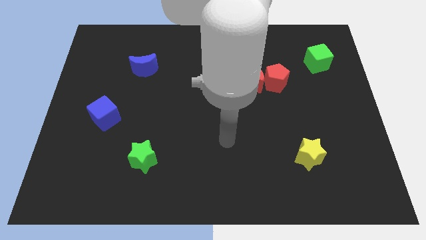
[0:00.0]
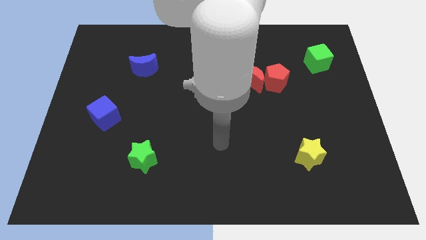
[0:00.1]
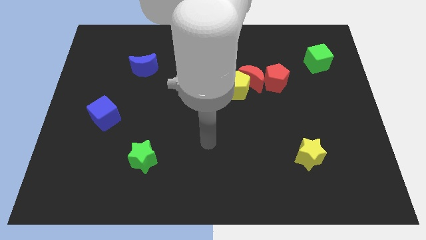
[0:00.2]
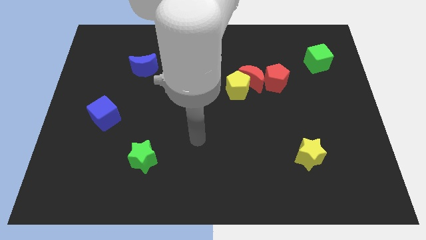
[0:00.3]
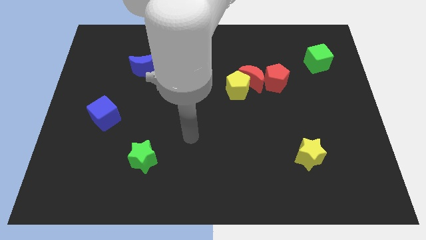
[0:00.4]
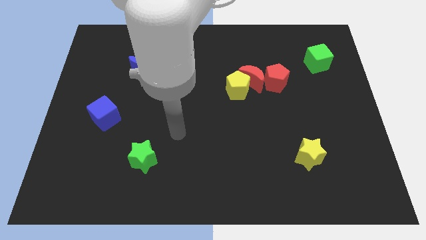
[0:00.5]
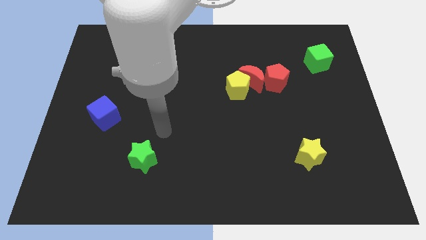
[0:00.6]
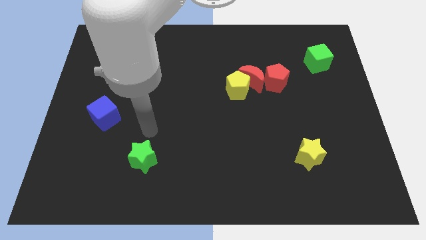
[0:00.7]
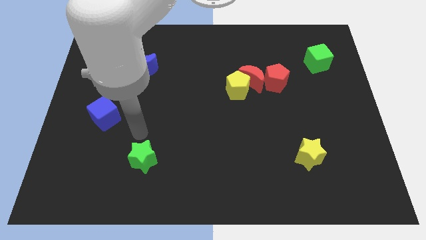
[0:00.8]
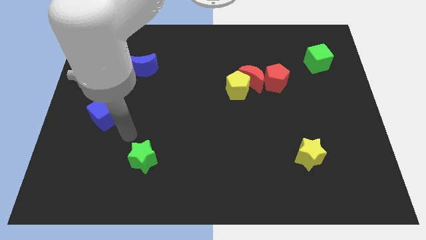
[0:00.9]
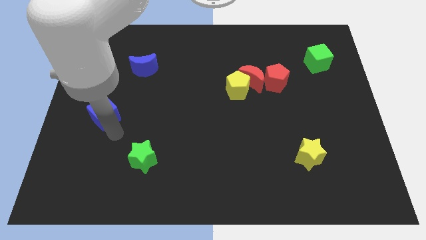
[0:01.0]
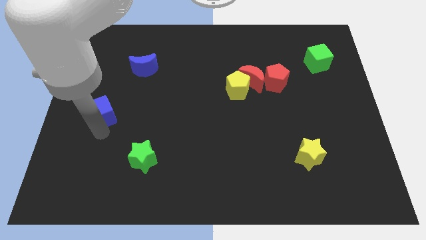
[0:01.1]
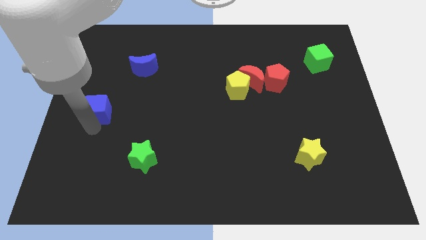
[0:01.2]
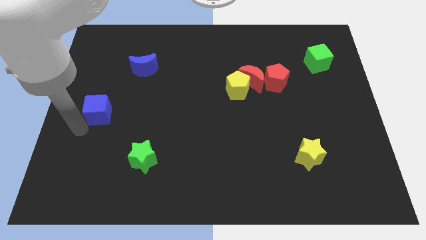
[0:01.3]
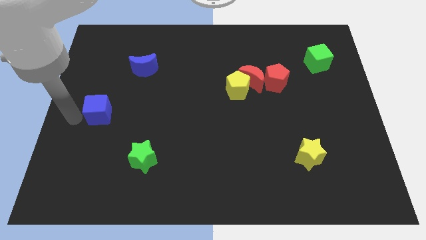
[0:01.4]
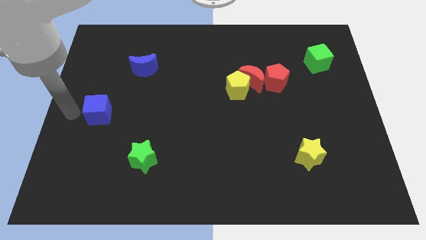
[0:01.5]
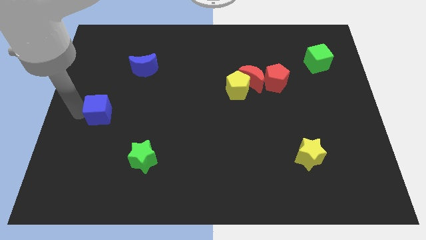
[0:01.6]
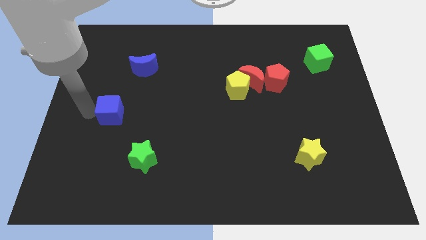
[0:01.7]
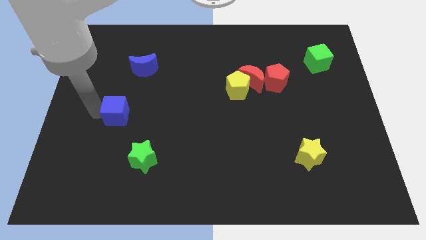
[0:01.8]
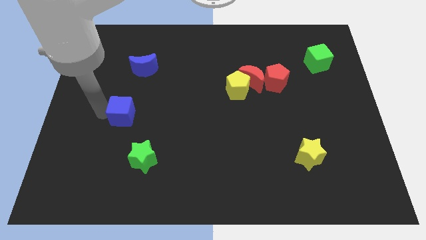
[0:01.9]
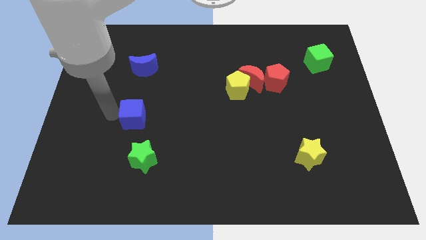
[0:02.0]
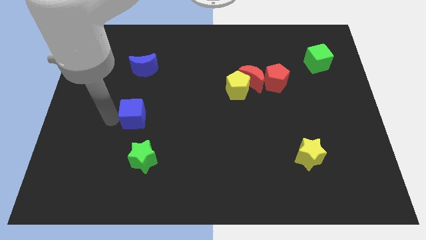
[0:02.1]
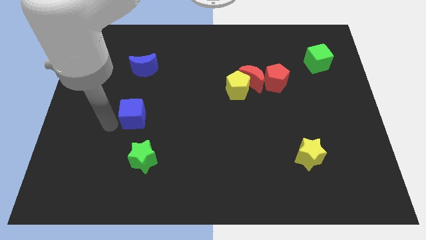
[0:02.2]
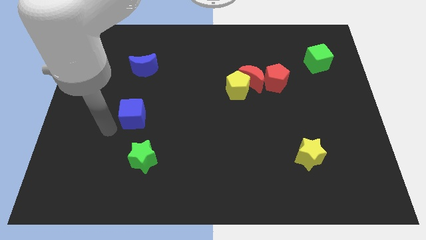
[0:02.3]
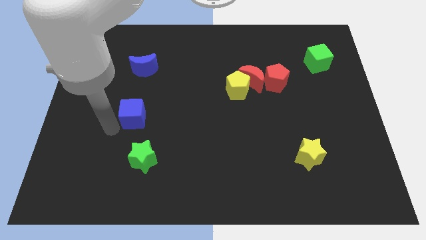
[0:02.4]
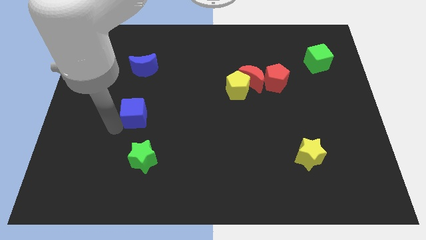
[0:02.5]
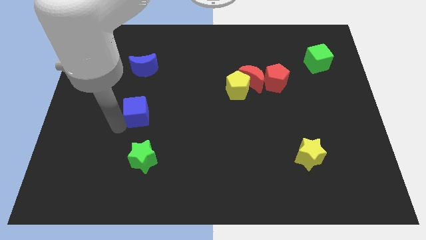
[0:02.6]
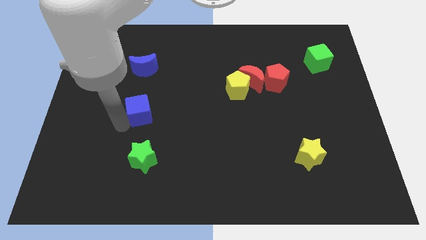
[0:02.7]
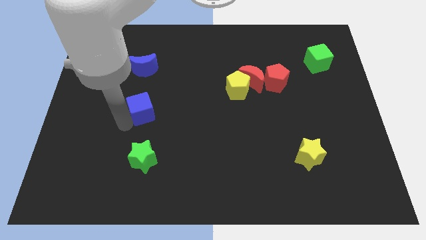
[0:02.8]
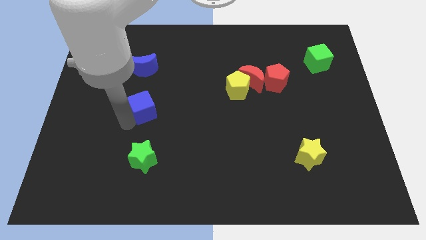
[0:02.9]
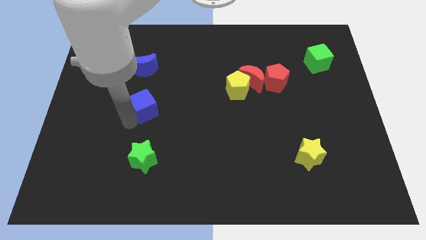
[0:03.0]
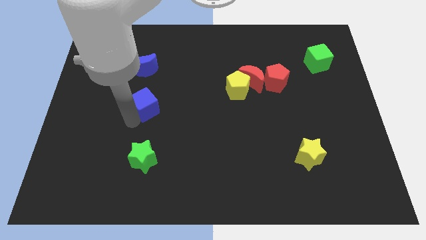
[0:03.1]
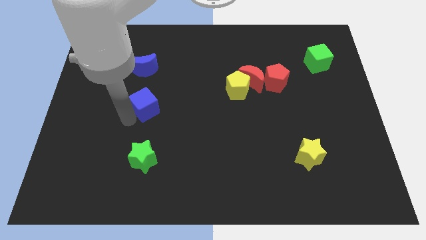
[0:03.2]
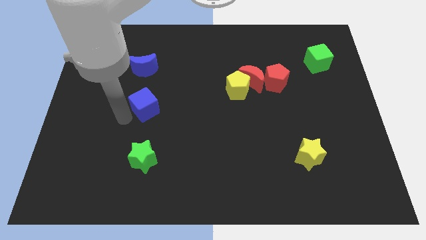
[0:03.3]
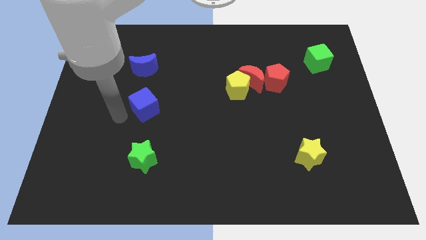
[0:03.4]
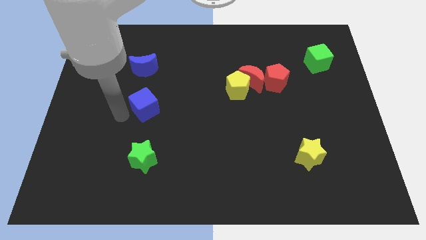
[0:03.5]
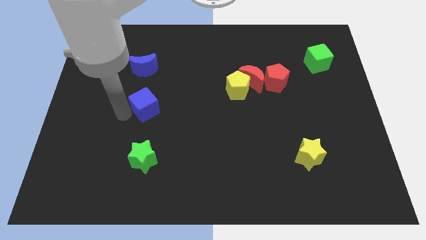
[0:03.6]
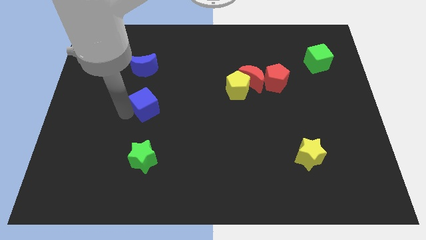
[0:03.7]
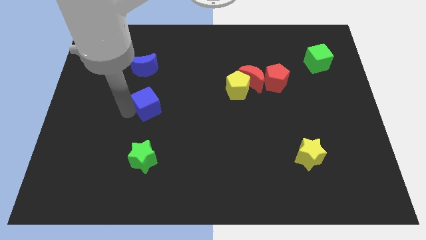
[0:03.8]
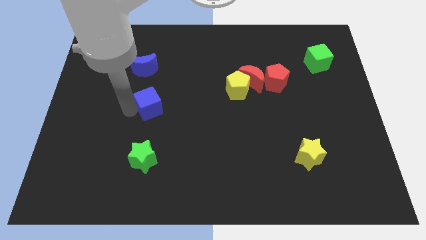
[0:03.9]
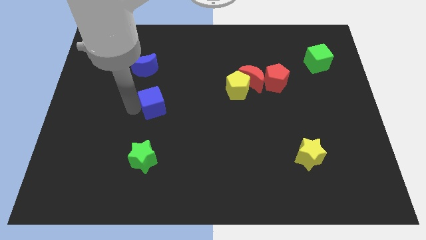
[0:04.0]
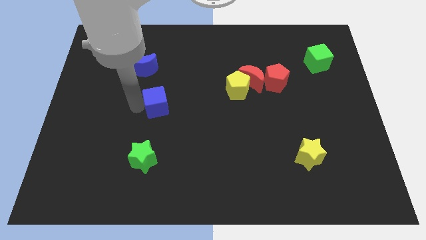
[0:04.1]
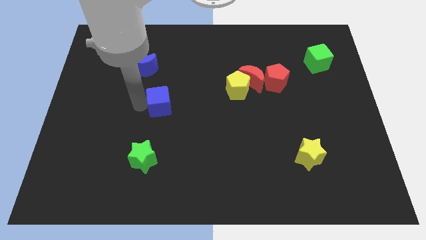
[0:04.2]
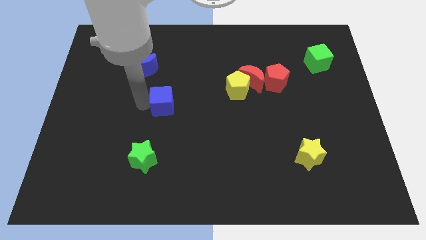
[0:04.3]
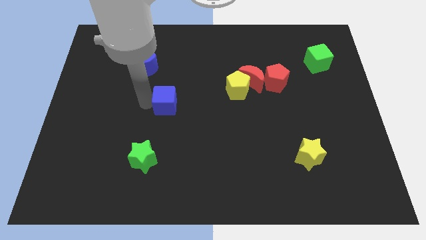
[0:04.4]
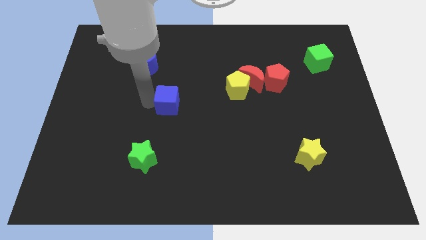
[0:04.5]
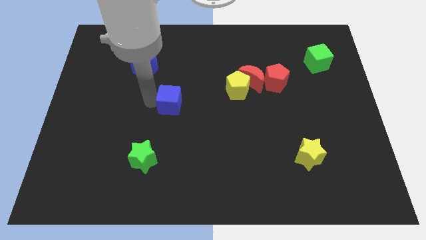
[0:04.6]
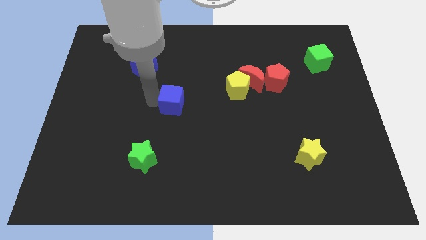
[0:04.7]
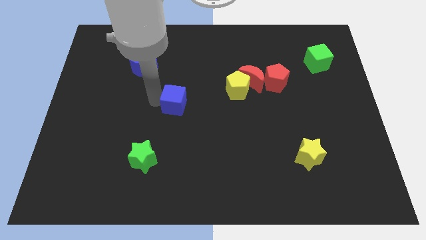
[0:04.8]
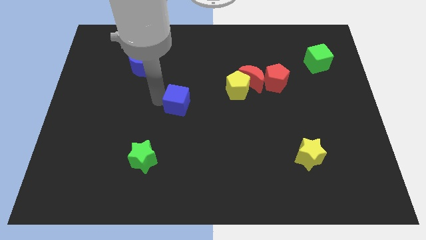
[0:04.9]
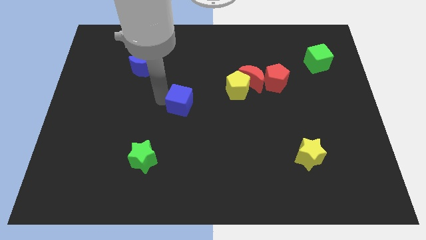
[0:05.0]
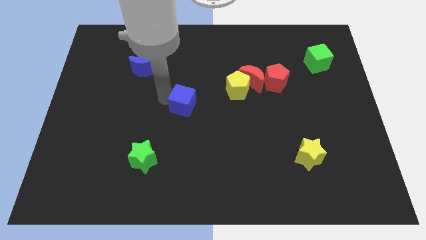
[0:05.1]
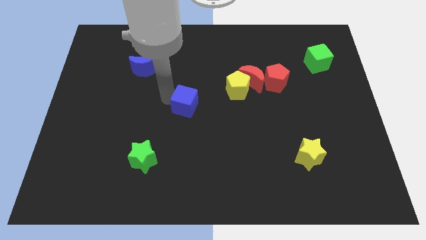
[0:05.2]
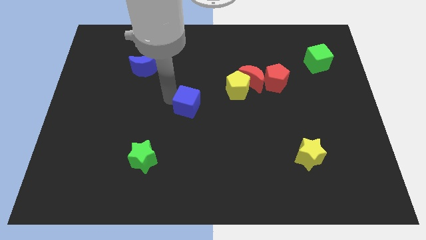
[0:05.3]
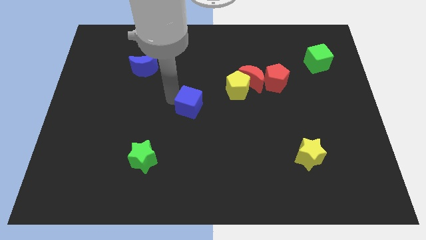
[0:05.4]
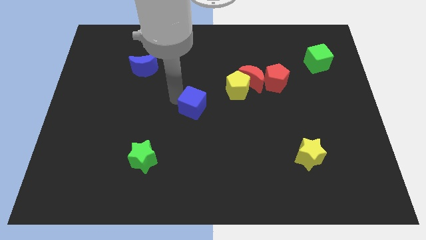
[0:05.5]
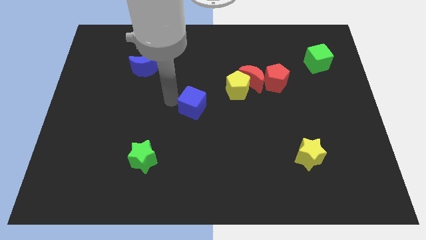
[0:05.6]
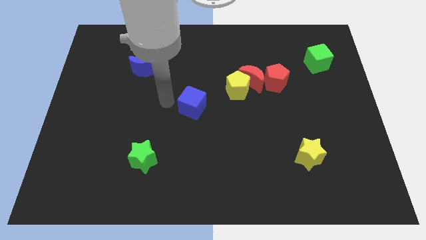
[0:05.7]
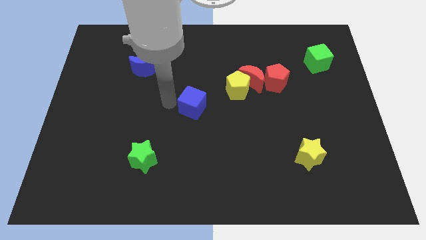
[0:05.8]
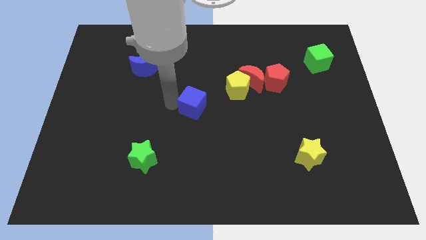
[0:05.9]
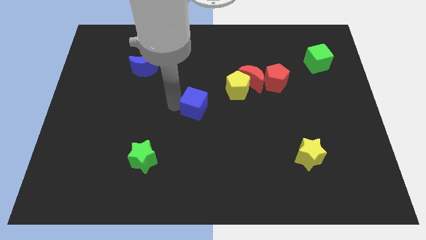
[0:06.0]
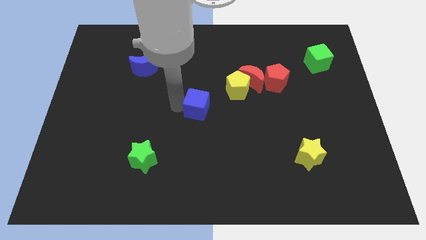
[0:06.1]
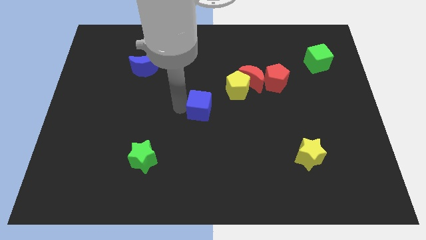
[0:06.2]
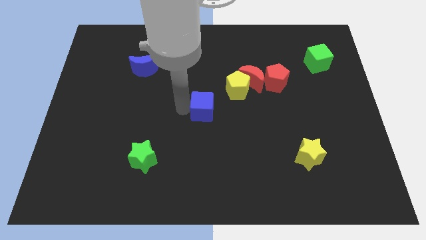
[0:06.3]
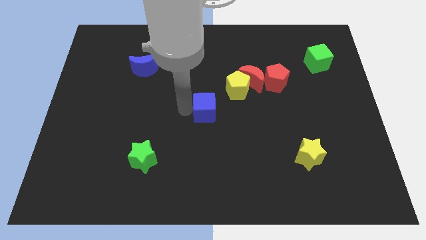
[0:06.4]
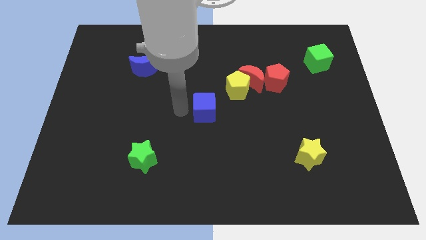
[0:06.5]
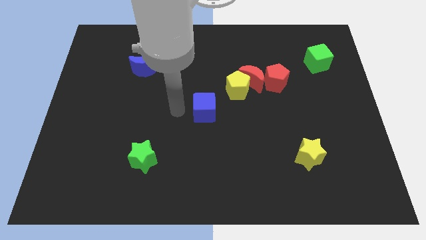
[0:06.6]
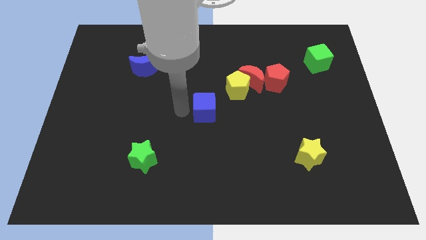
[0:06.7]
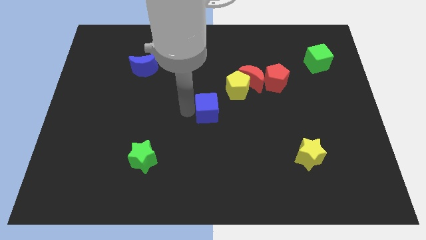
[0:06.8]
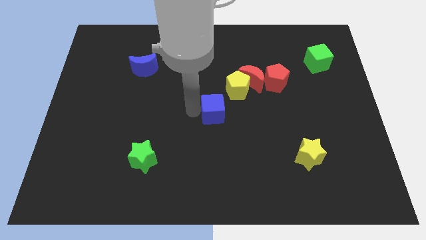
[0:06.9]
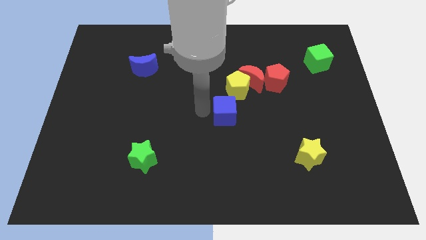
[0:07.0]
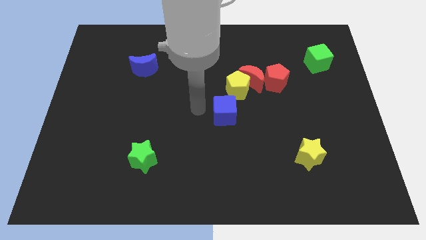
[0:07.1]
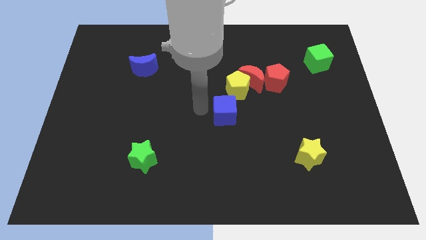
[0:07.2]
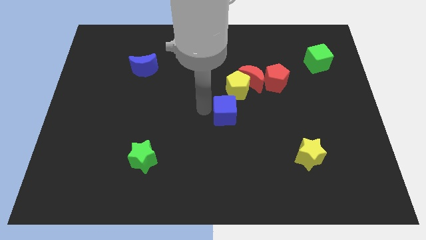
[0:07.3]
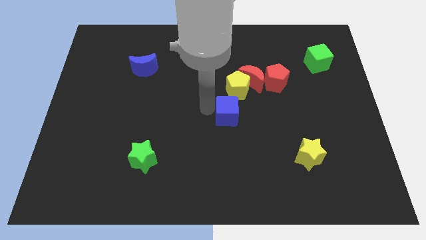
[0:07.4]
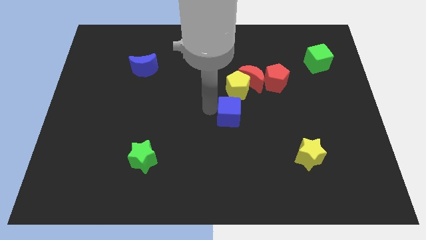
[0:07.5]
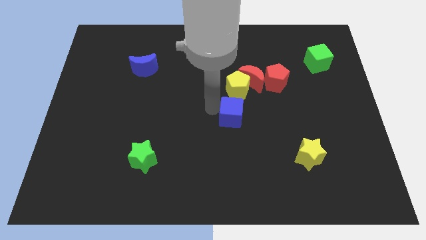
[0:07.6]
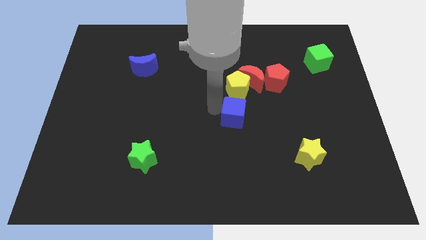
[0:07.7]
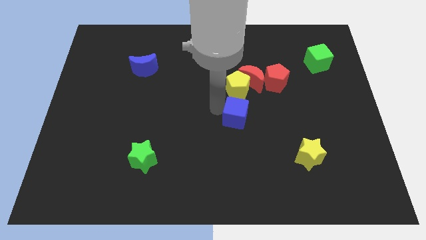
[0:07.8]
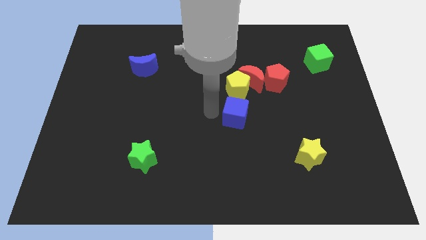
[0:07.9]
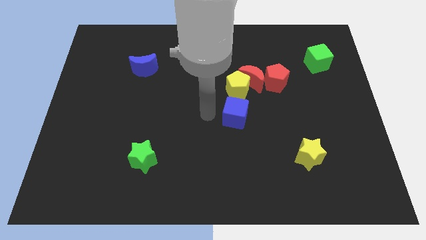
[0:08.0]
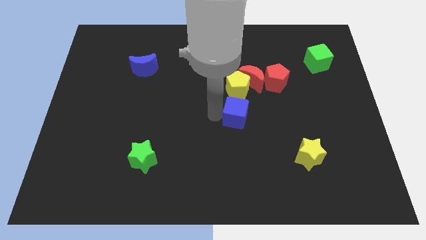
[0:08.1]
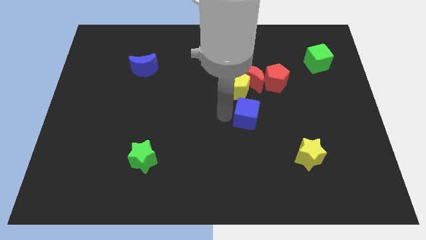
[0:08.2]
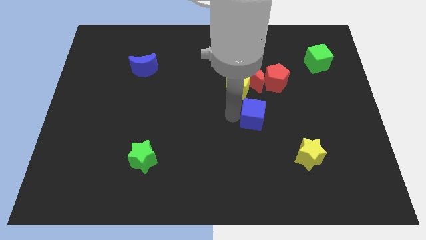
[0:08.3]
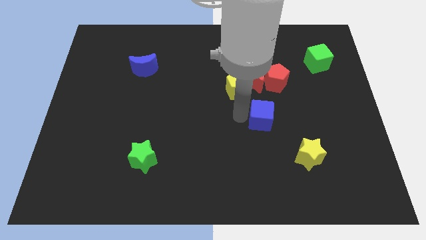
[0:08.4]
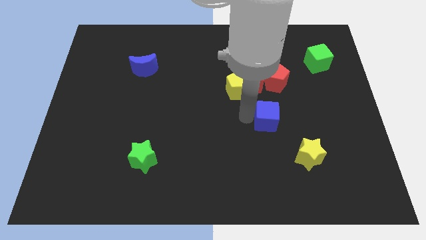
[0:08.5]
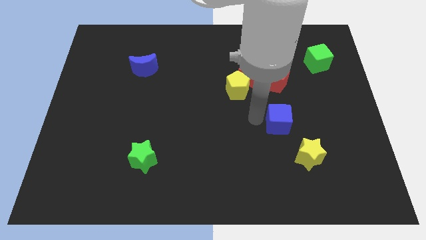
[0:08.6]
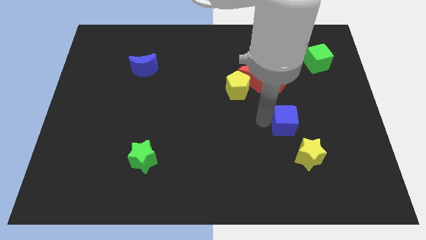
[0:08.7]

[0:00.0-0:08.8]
push the blue cube to the top side of the yellow star
